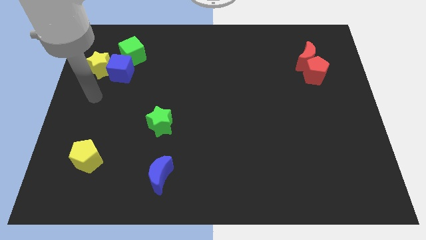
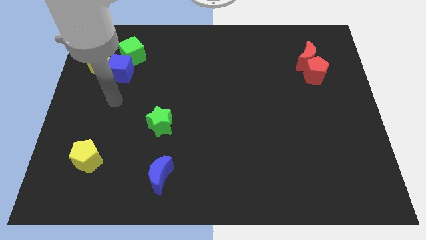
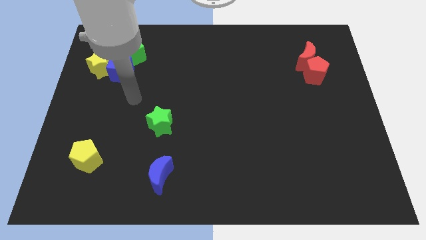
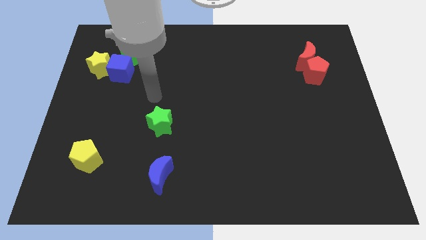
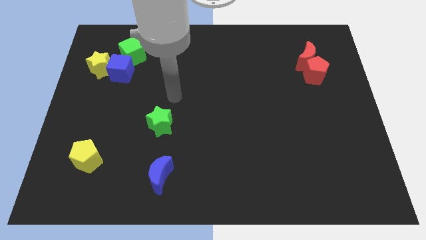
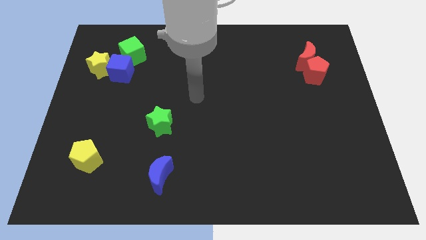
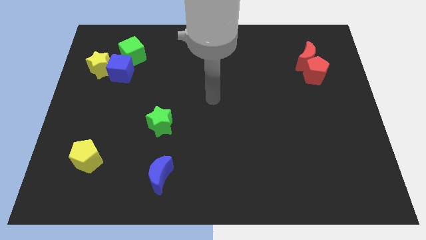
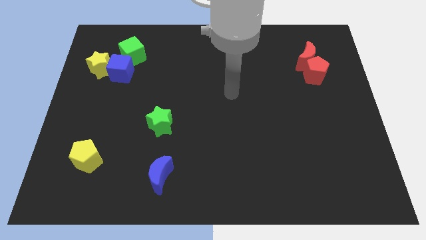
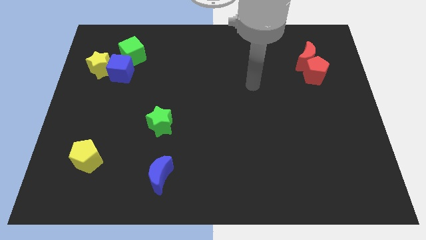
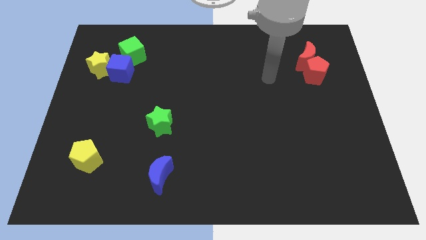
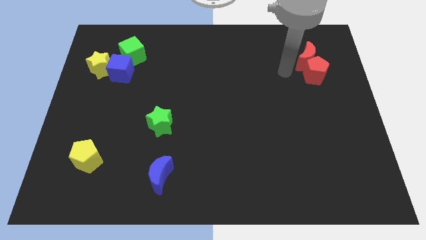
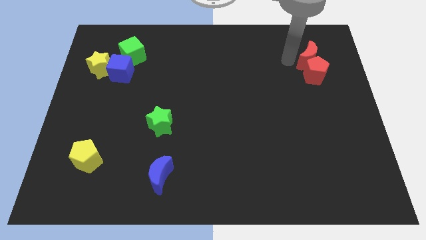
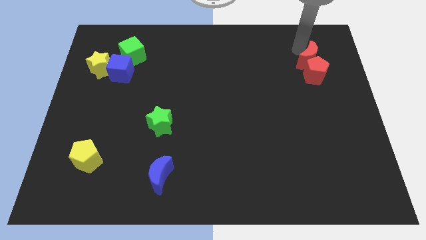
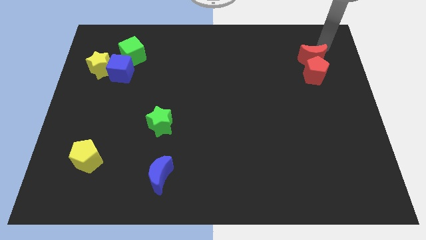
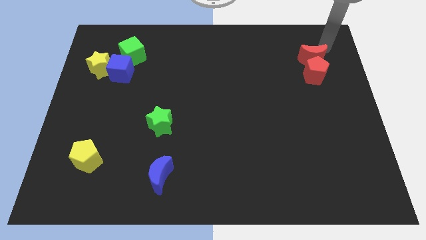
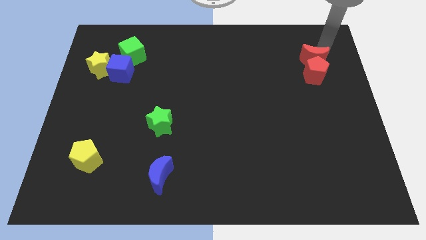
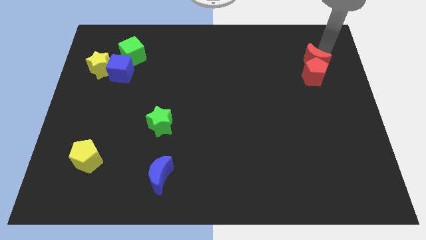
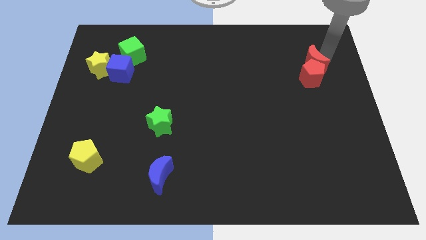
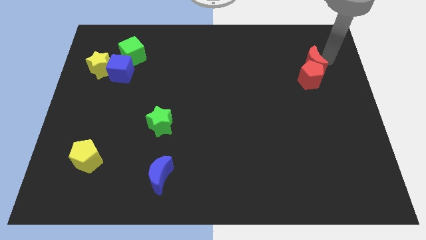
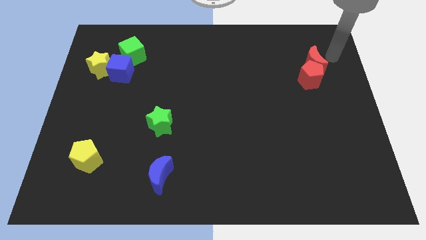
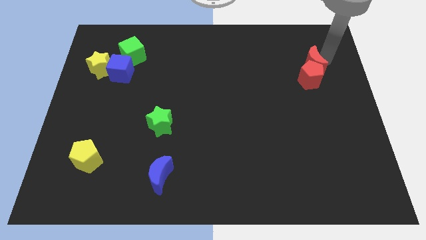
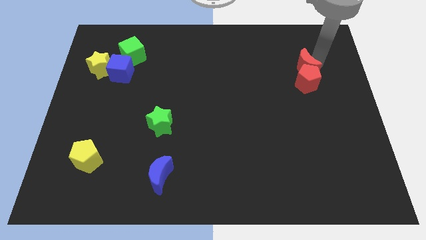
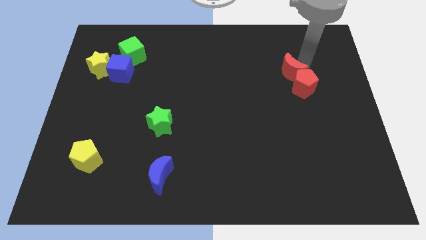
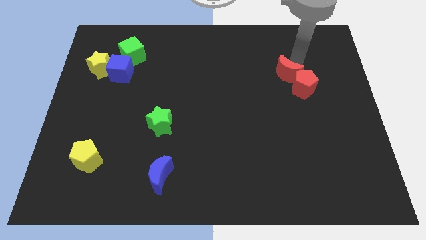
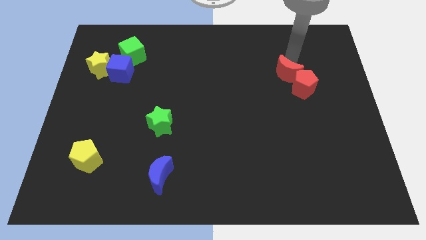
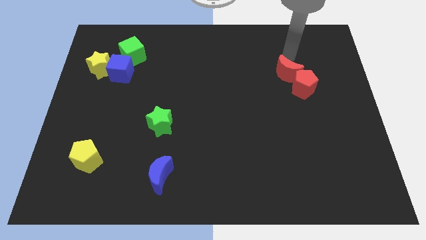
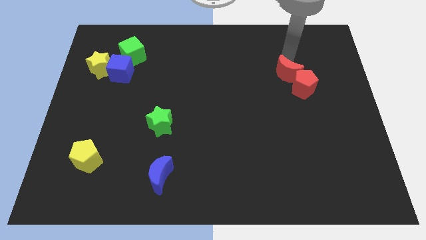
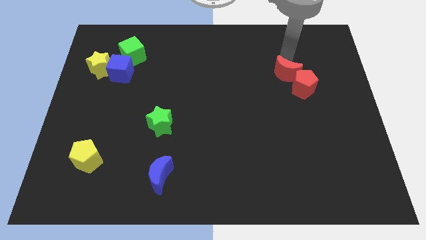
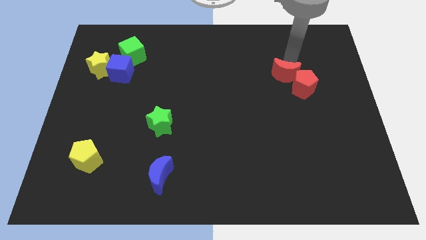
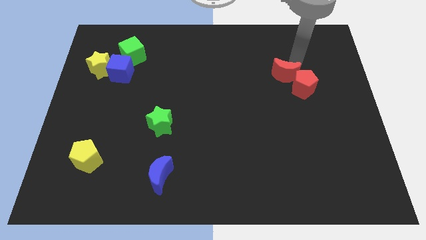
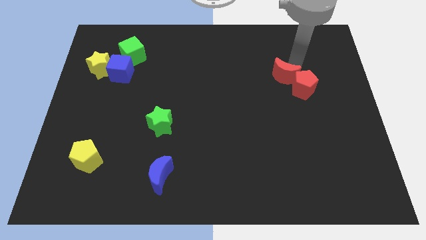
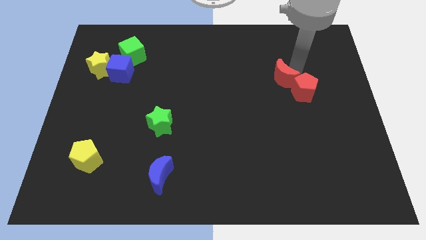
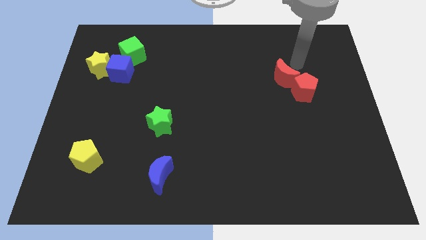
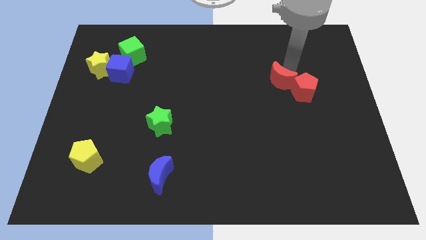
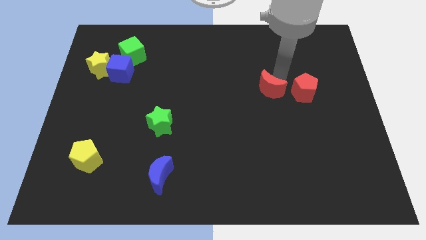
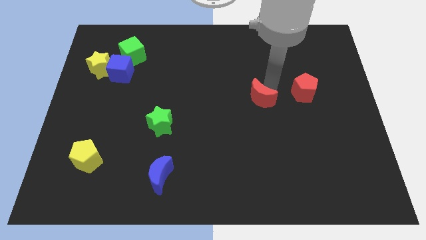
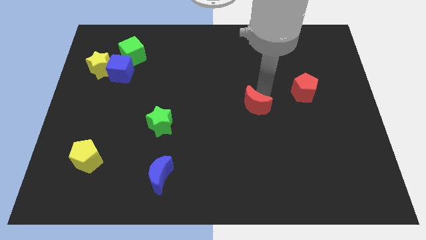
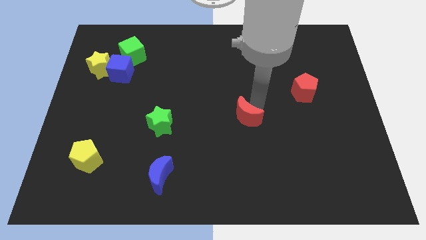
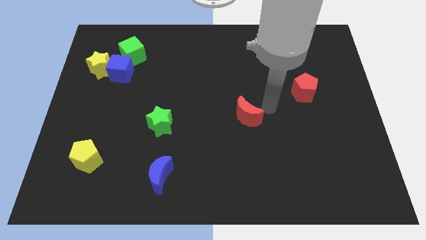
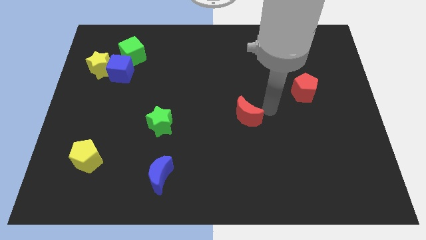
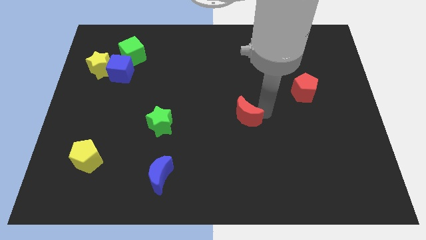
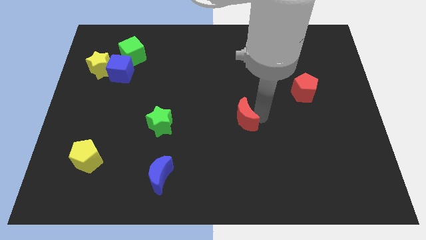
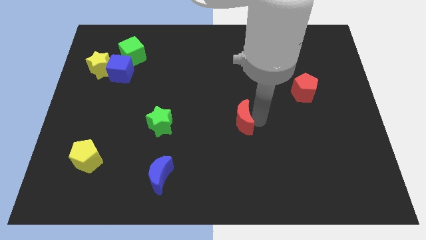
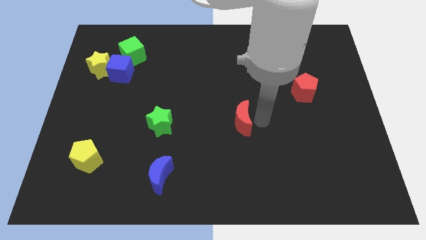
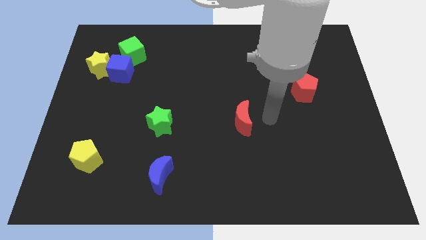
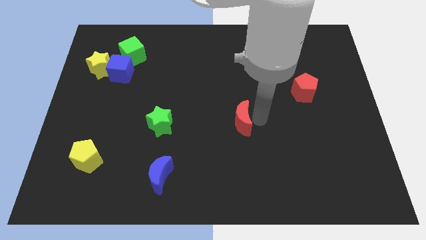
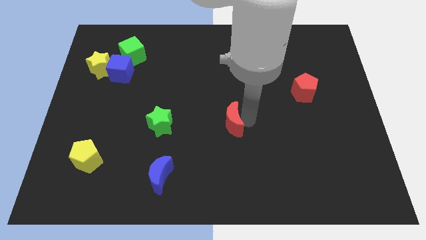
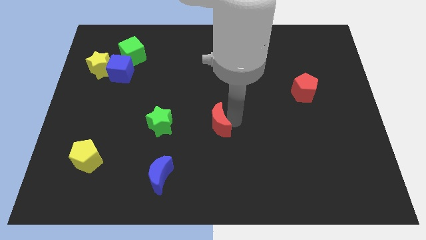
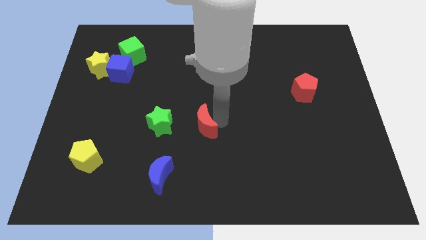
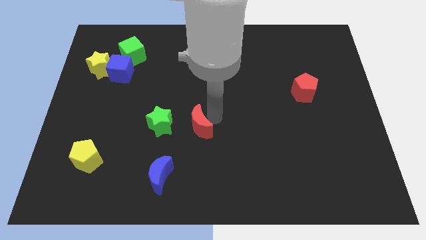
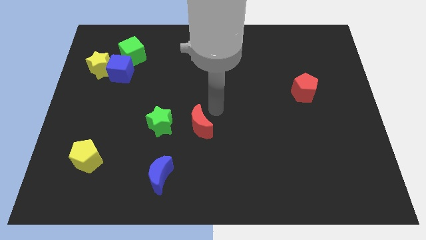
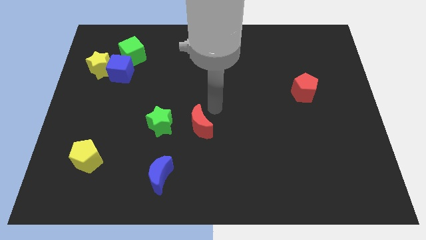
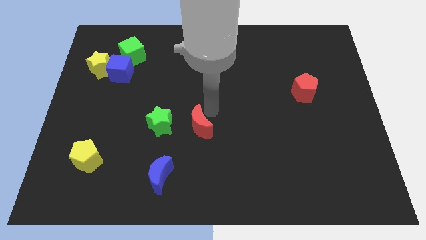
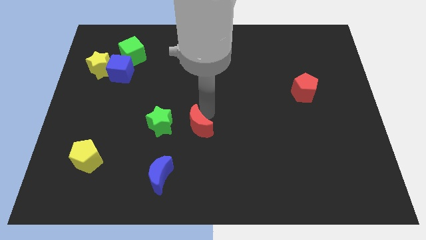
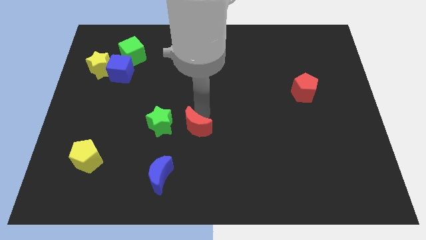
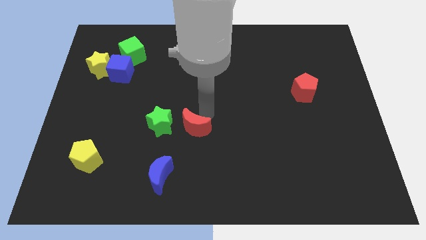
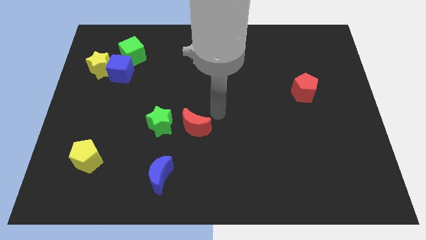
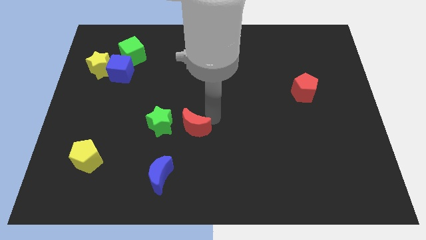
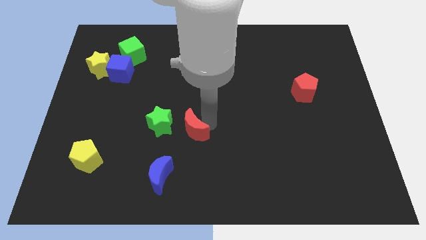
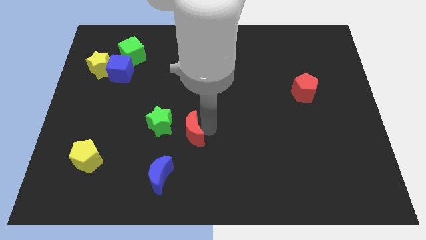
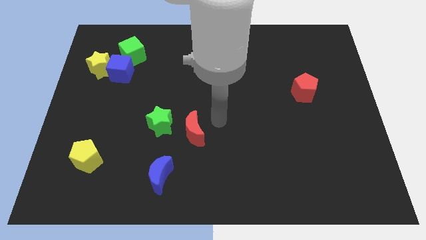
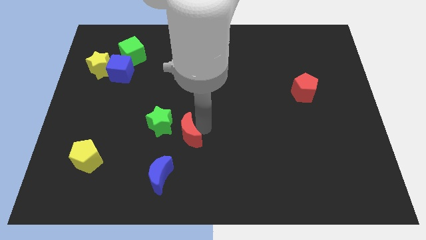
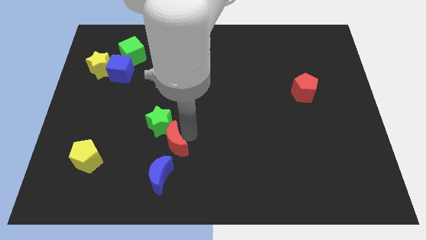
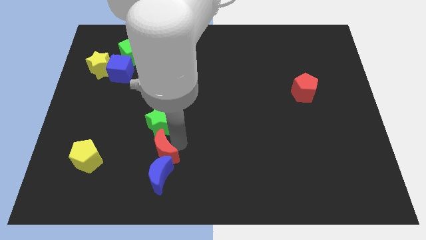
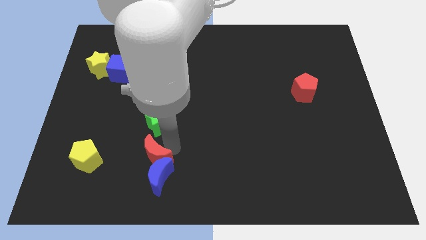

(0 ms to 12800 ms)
move the red moon to the right of the yellow pentagon

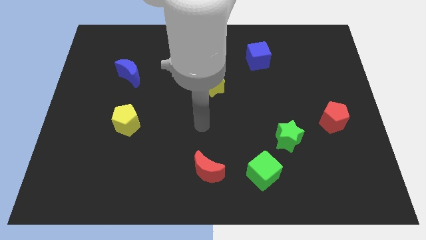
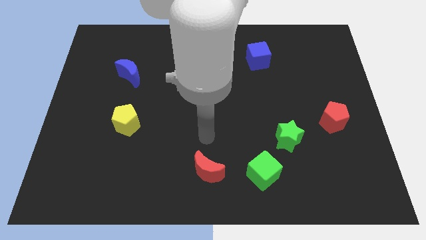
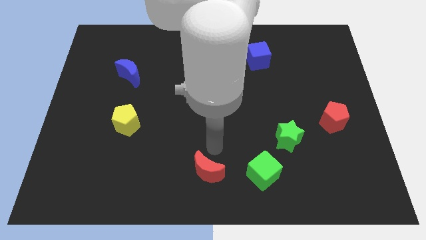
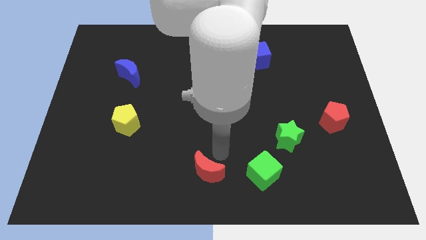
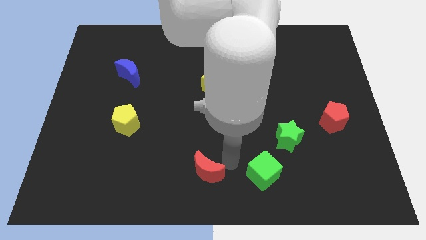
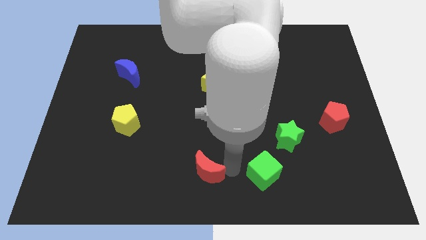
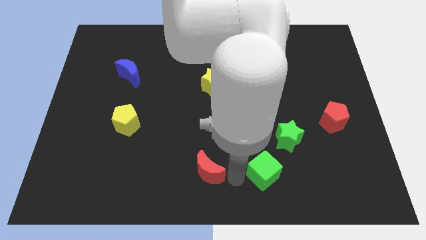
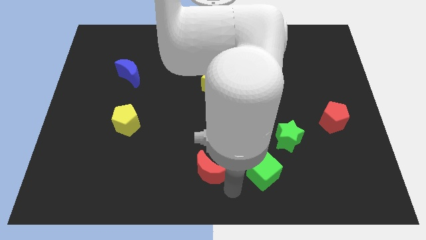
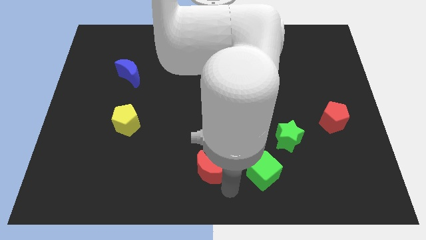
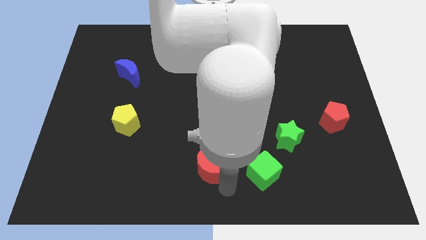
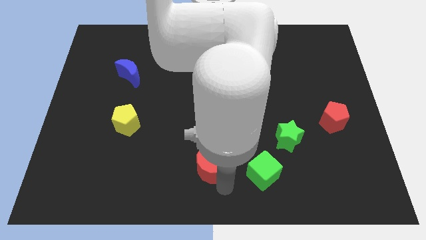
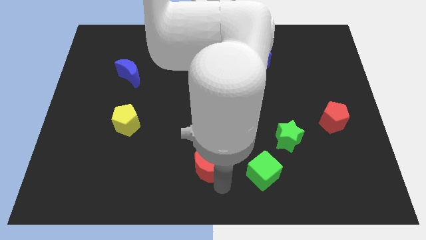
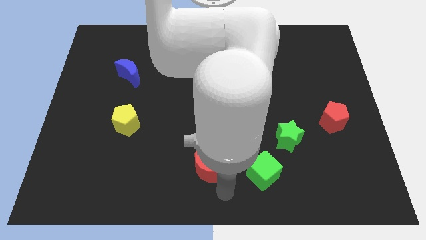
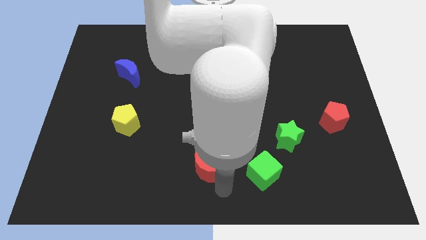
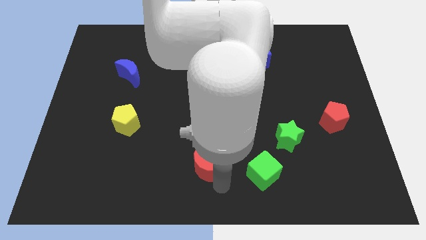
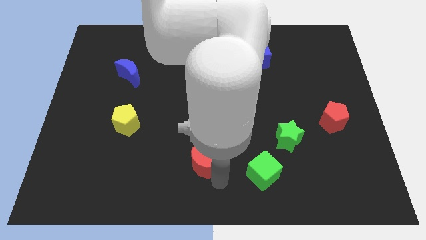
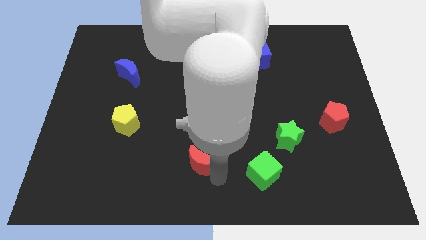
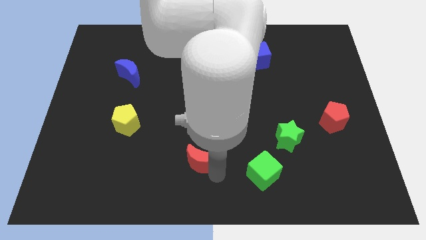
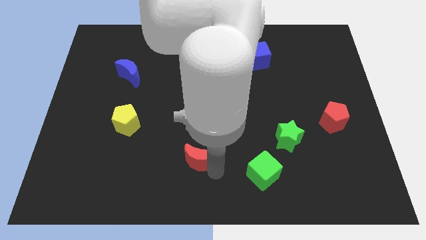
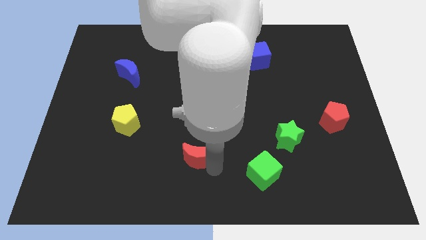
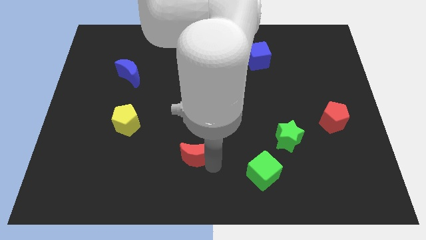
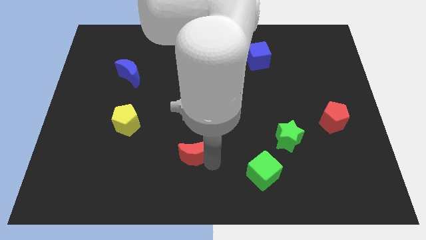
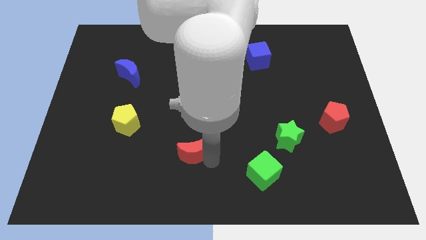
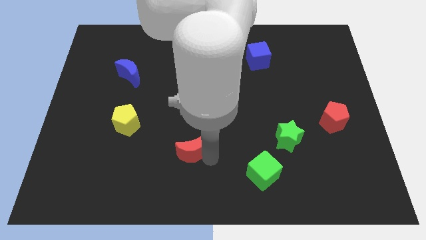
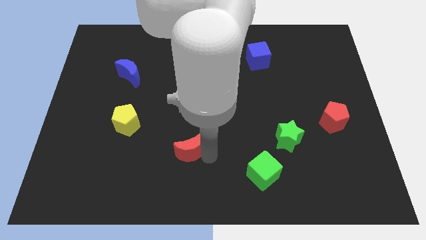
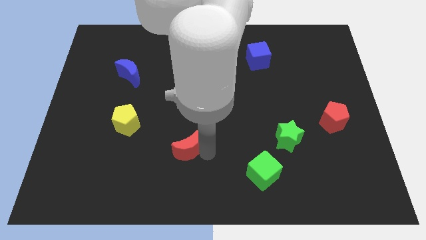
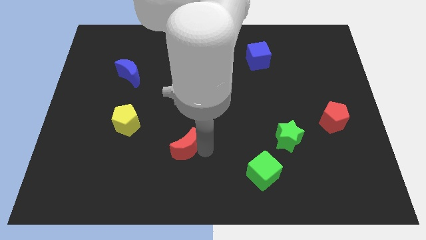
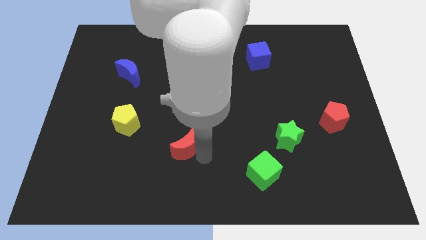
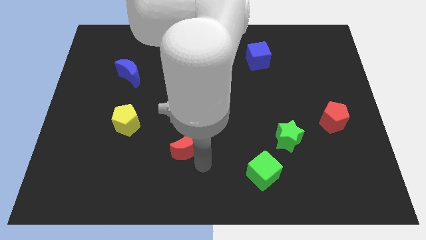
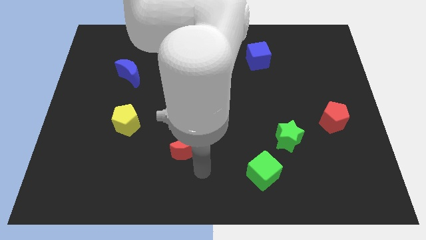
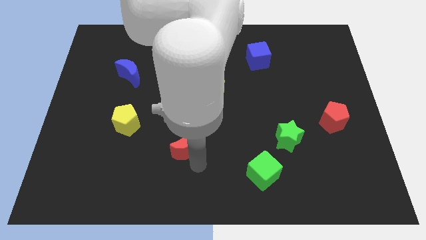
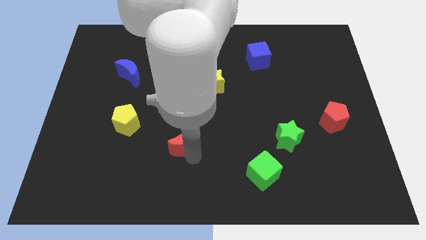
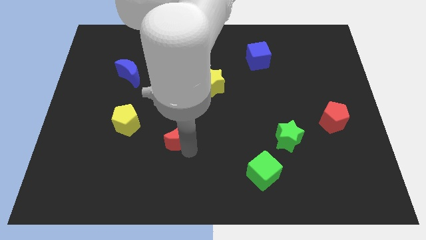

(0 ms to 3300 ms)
push the red moon just right of the yellow pentagon
